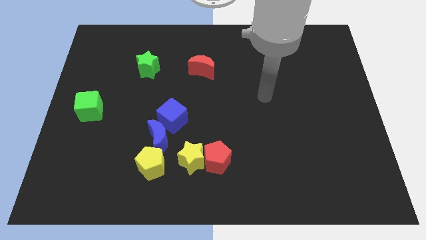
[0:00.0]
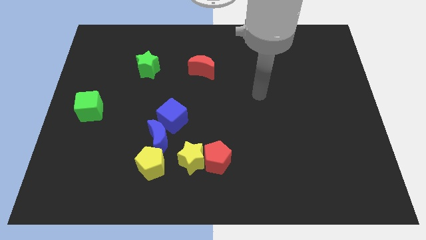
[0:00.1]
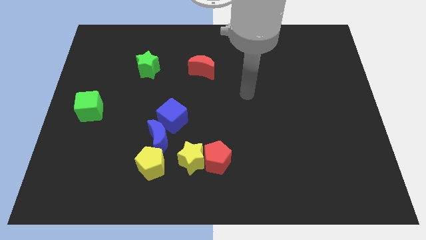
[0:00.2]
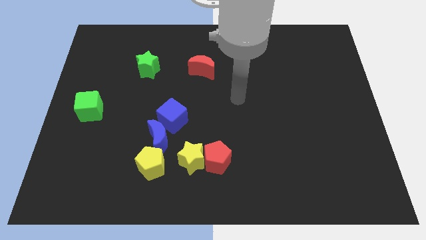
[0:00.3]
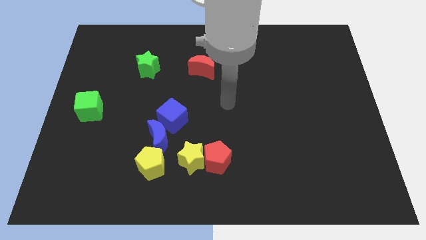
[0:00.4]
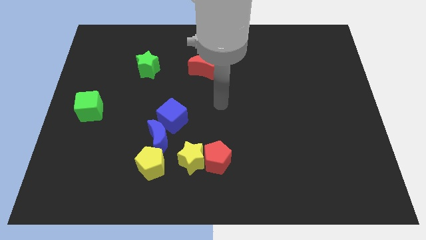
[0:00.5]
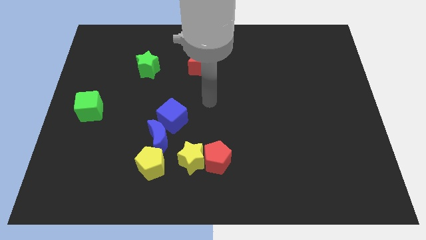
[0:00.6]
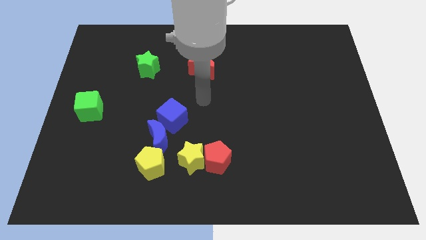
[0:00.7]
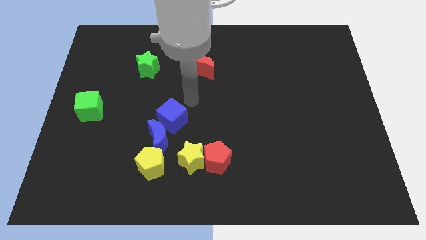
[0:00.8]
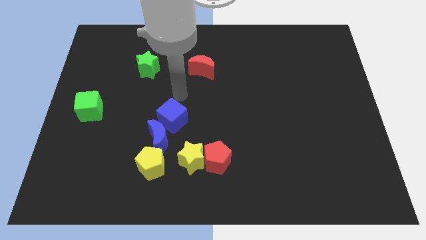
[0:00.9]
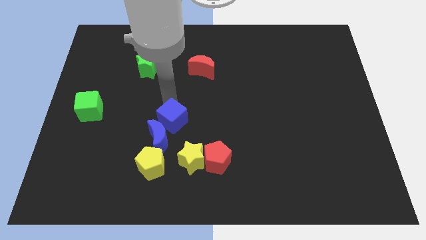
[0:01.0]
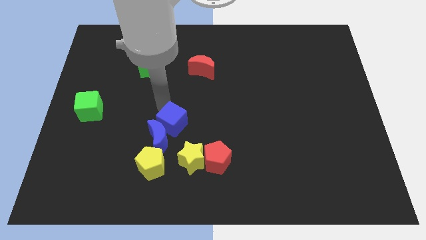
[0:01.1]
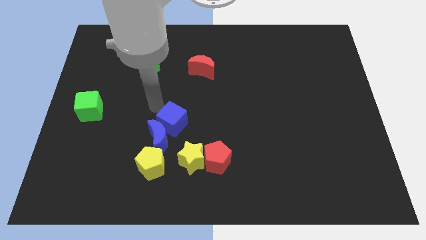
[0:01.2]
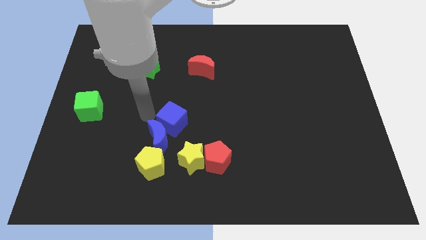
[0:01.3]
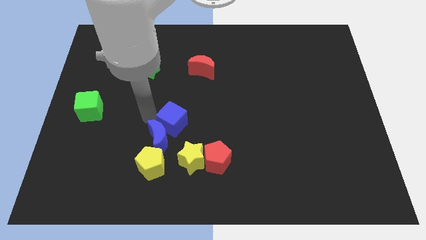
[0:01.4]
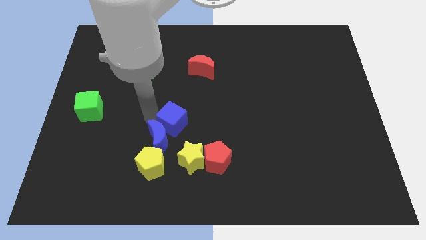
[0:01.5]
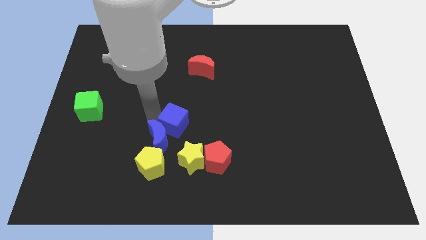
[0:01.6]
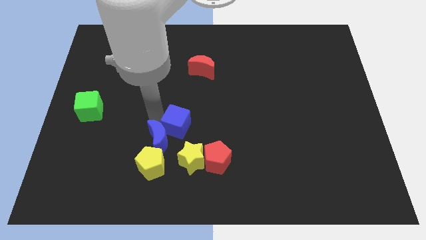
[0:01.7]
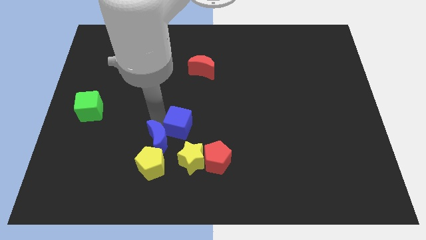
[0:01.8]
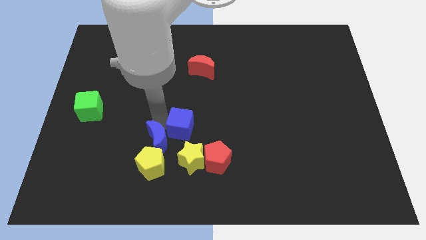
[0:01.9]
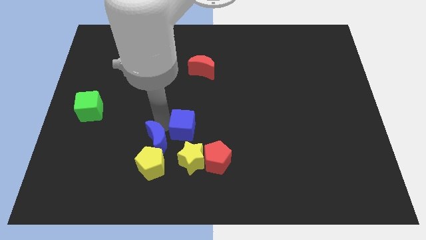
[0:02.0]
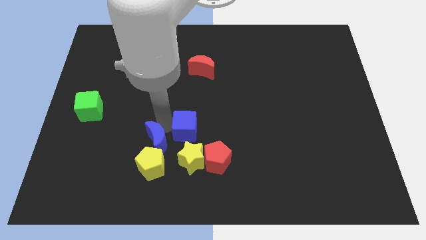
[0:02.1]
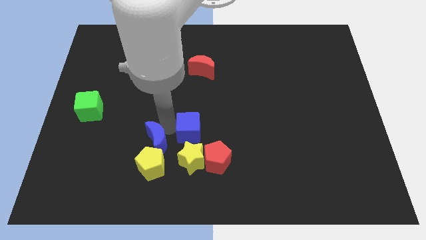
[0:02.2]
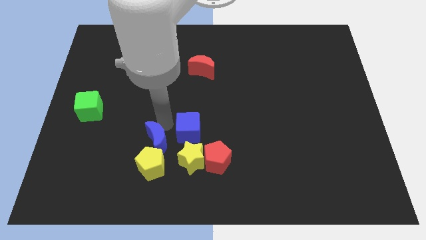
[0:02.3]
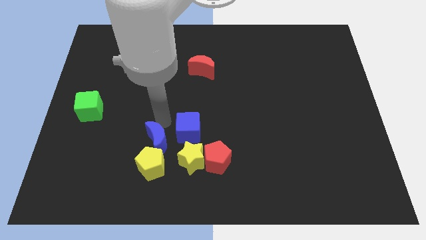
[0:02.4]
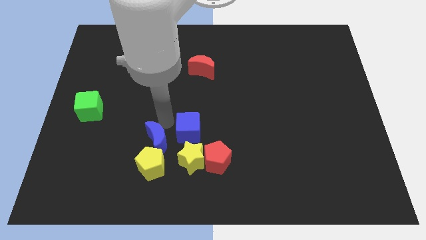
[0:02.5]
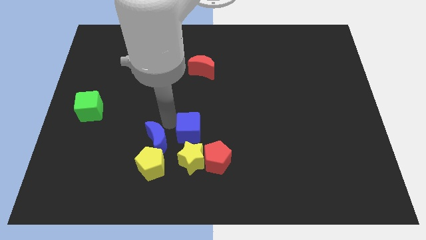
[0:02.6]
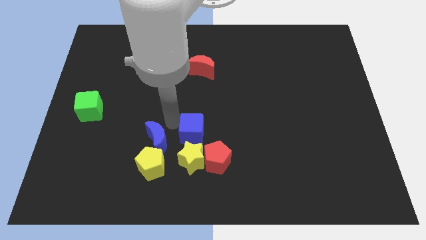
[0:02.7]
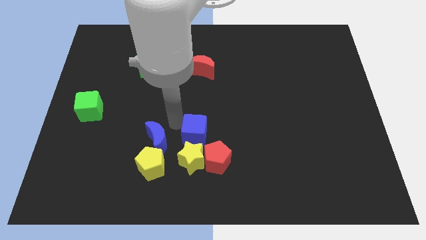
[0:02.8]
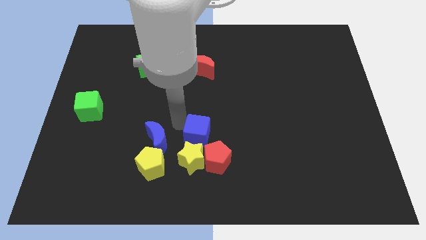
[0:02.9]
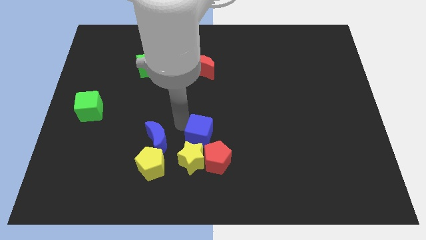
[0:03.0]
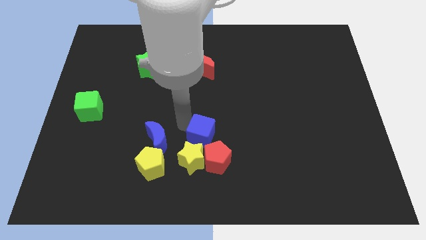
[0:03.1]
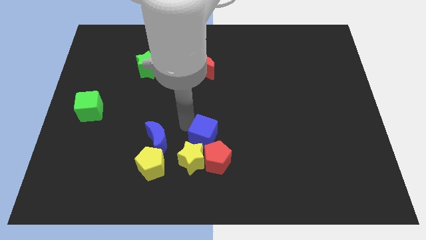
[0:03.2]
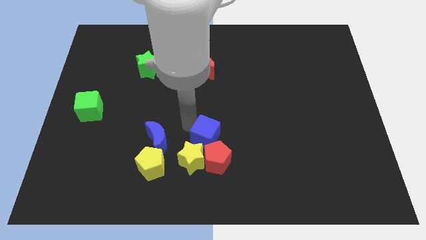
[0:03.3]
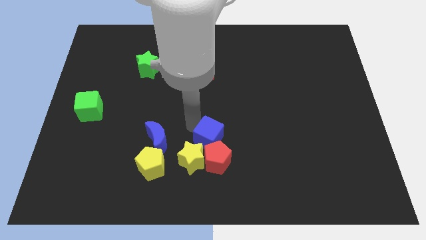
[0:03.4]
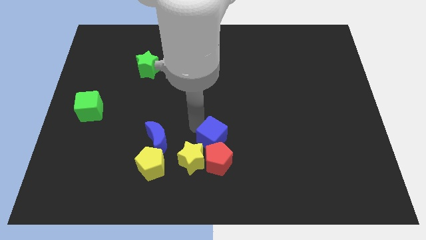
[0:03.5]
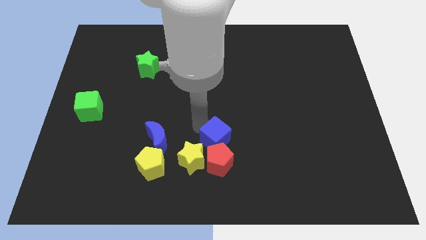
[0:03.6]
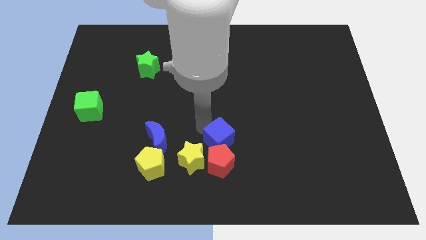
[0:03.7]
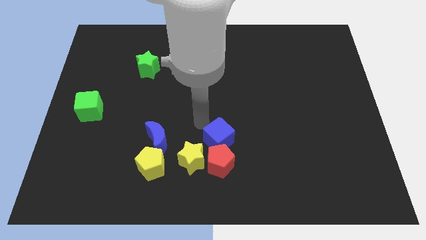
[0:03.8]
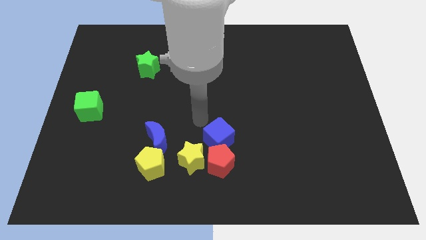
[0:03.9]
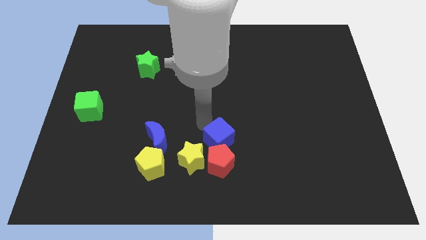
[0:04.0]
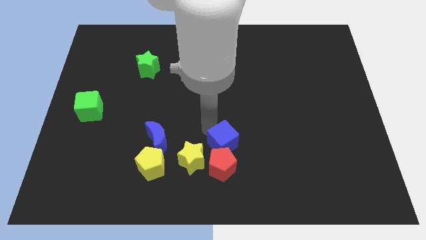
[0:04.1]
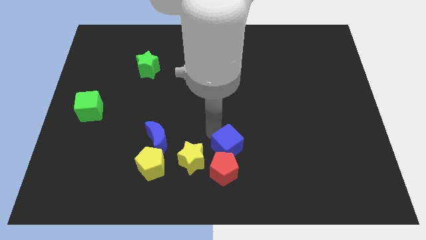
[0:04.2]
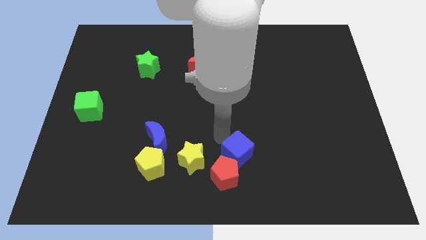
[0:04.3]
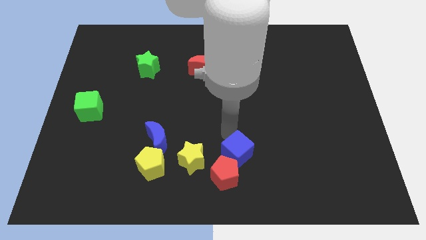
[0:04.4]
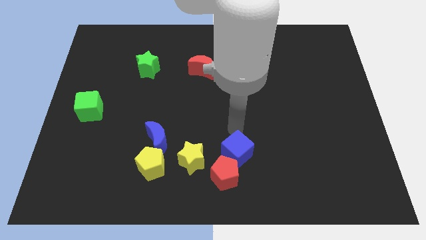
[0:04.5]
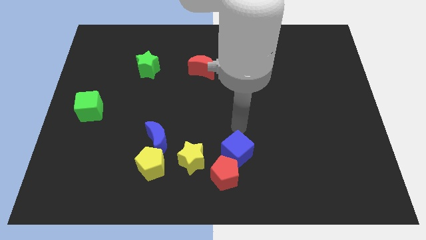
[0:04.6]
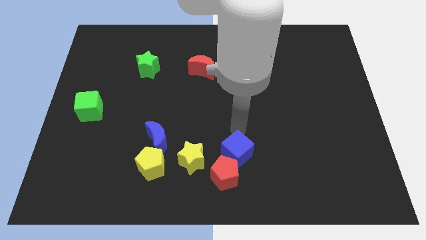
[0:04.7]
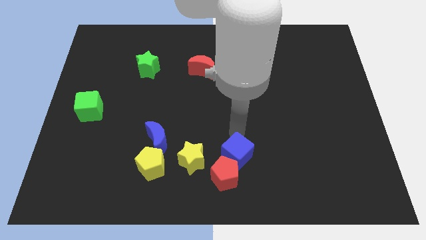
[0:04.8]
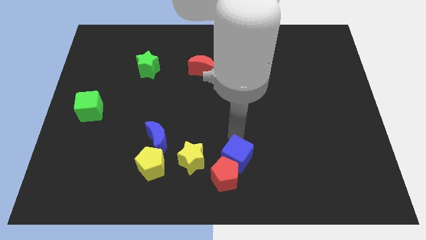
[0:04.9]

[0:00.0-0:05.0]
move the blue cube to the bottom

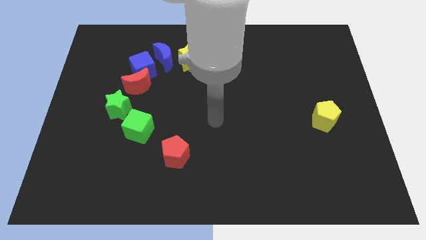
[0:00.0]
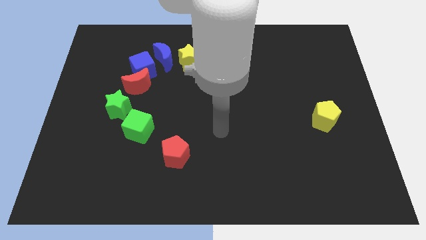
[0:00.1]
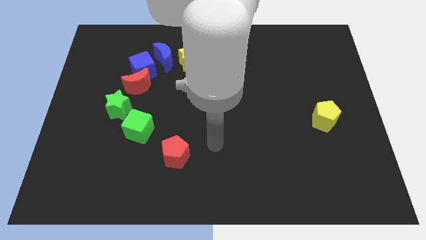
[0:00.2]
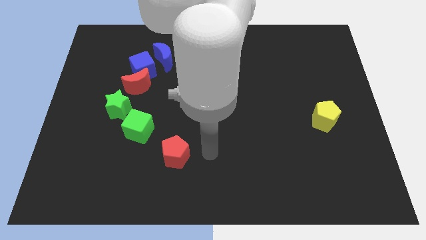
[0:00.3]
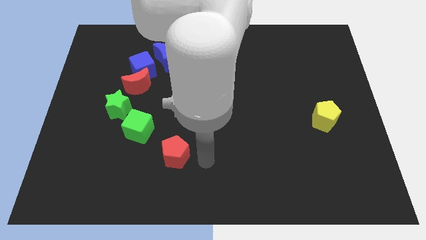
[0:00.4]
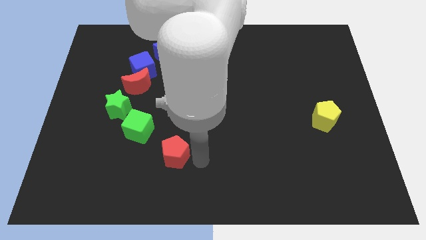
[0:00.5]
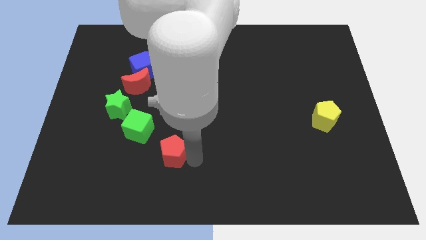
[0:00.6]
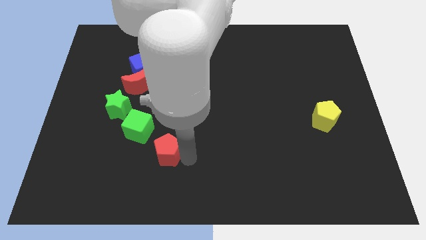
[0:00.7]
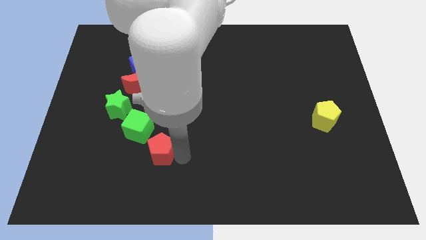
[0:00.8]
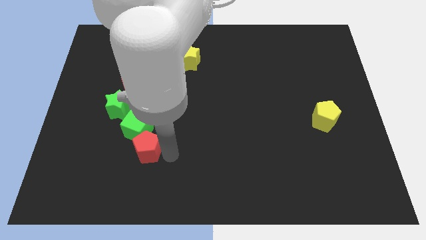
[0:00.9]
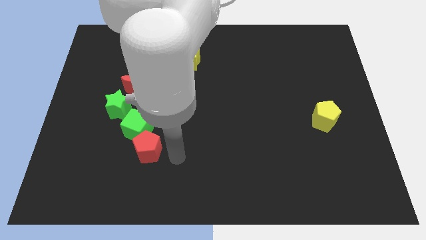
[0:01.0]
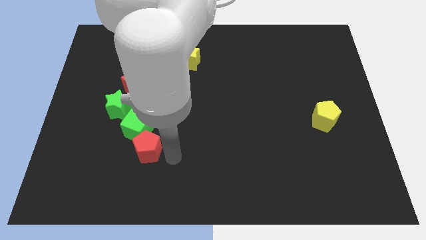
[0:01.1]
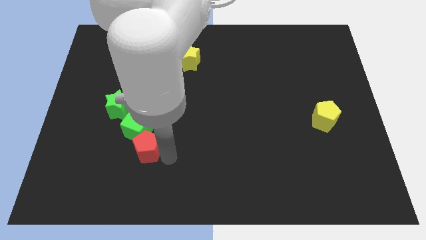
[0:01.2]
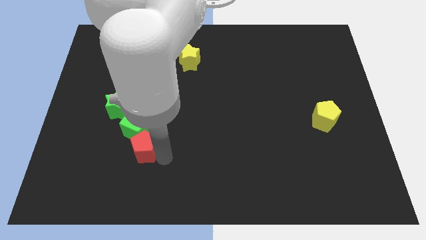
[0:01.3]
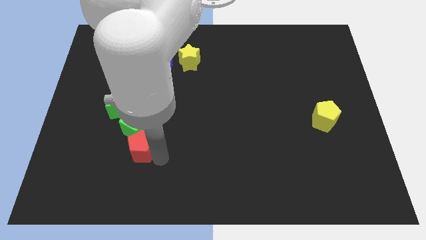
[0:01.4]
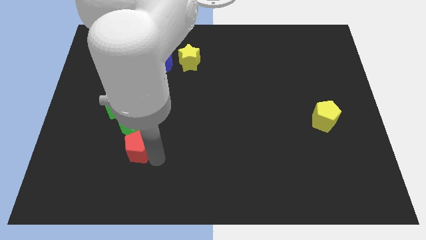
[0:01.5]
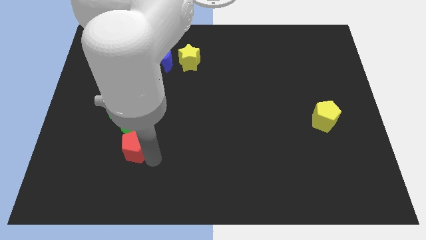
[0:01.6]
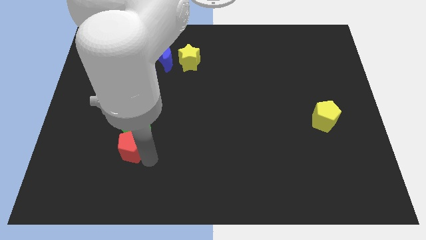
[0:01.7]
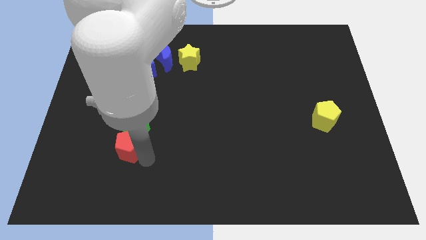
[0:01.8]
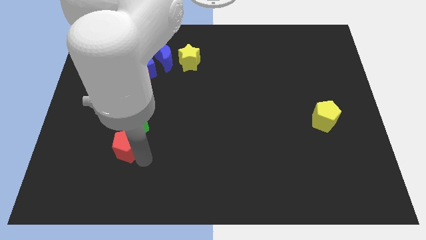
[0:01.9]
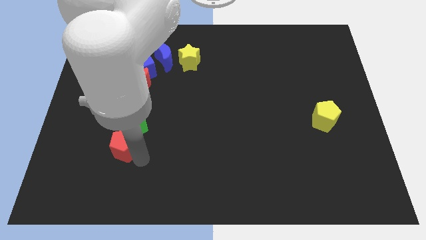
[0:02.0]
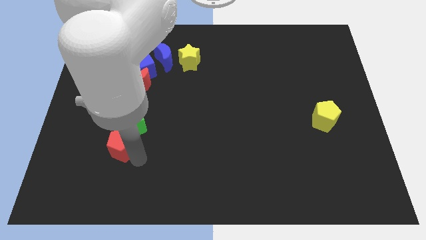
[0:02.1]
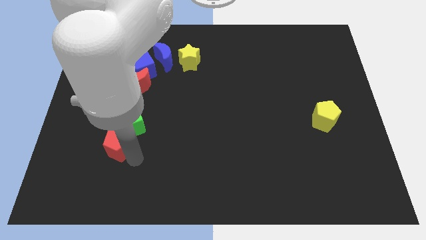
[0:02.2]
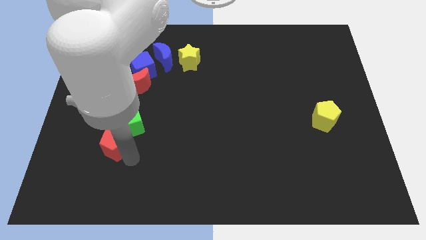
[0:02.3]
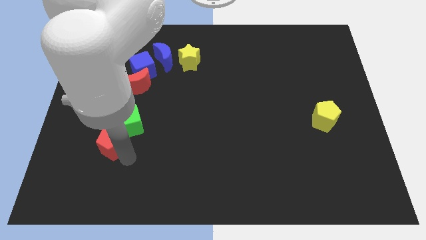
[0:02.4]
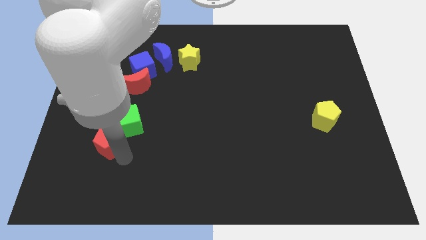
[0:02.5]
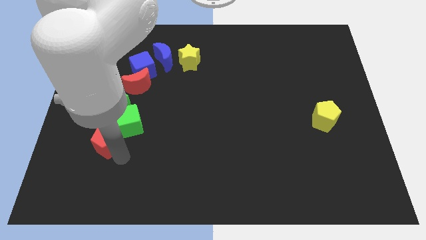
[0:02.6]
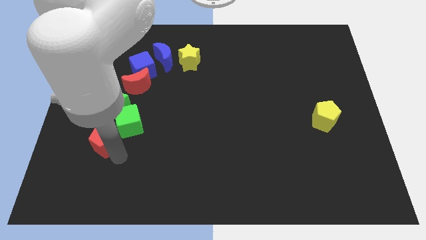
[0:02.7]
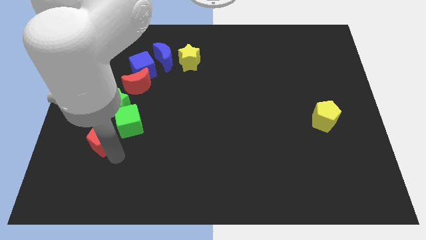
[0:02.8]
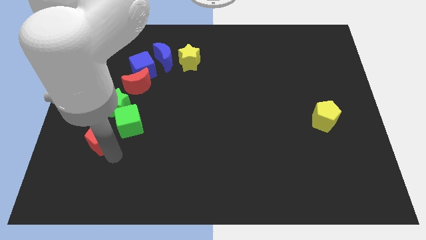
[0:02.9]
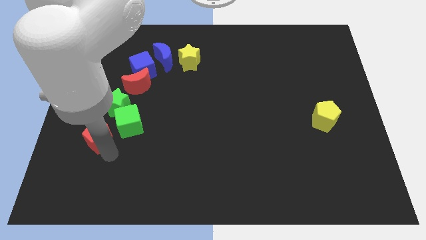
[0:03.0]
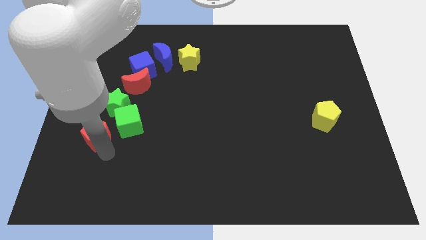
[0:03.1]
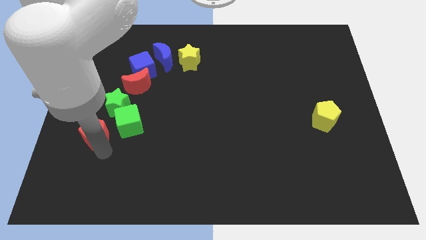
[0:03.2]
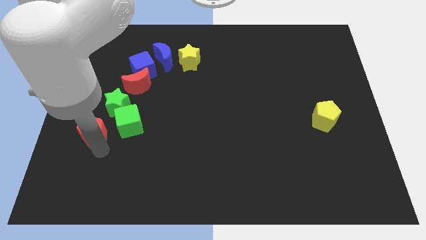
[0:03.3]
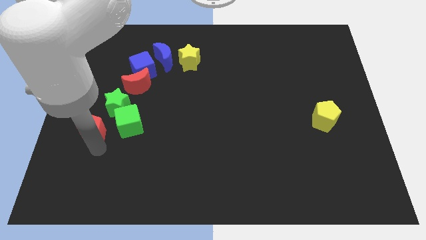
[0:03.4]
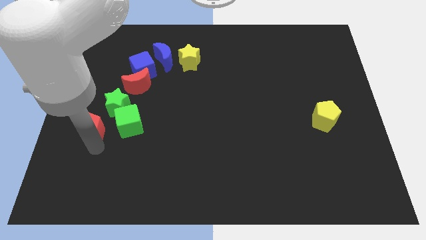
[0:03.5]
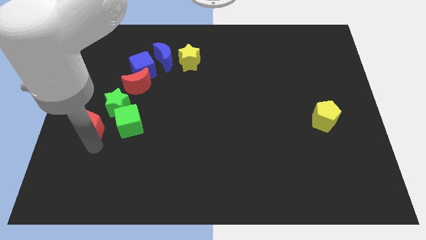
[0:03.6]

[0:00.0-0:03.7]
put the red pentagon to the left side
